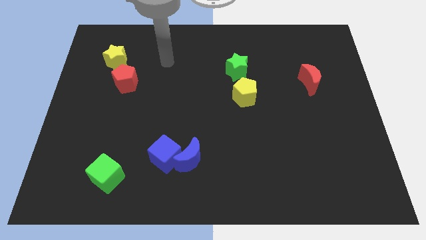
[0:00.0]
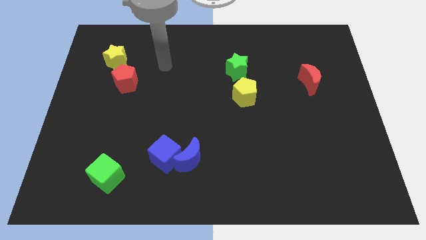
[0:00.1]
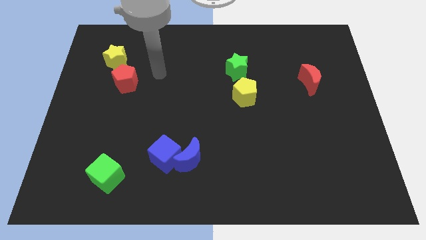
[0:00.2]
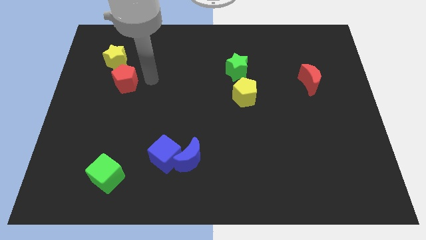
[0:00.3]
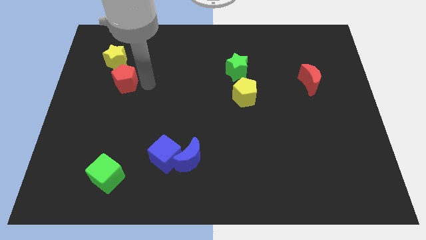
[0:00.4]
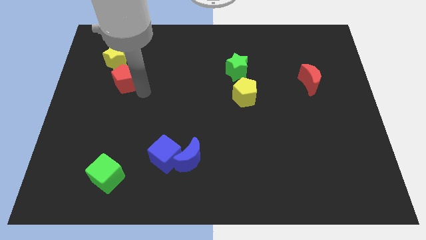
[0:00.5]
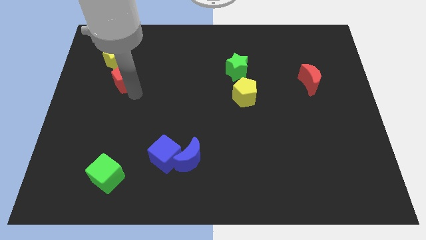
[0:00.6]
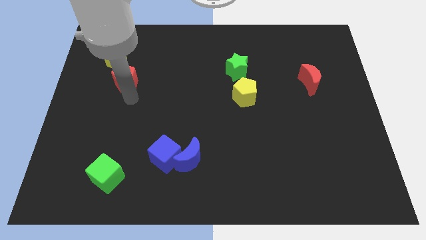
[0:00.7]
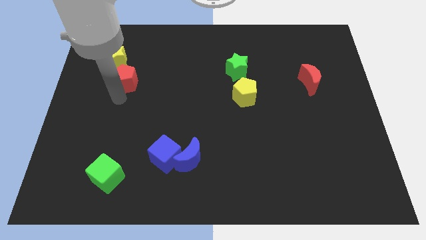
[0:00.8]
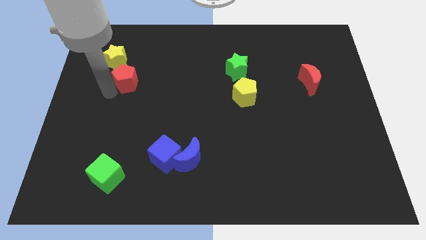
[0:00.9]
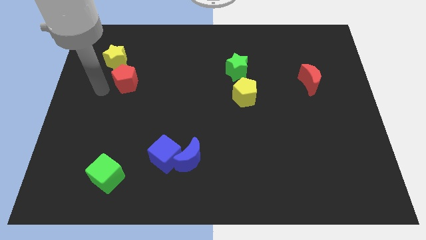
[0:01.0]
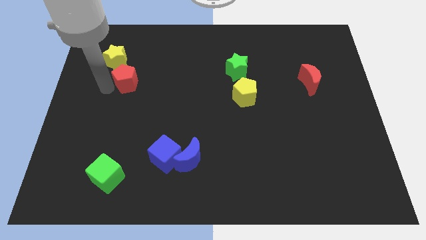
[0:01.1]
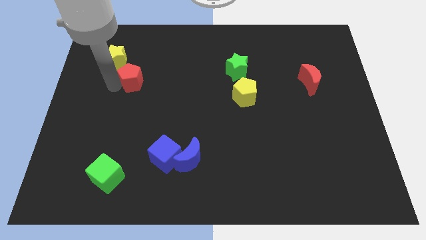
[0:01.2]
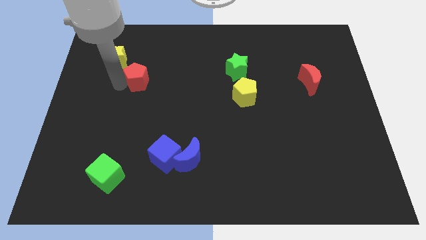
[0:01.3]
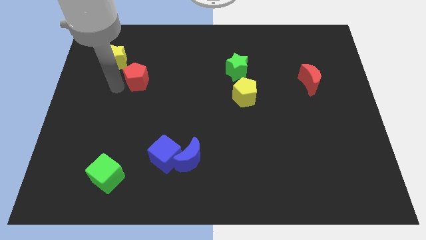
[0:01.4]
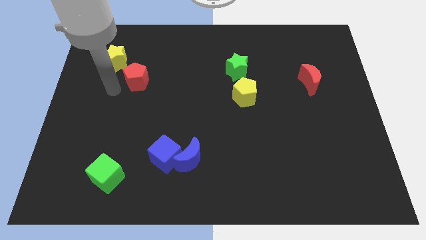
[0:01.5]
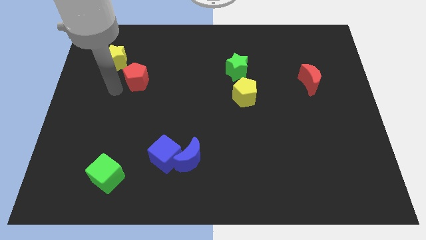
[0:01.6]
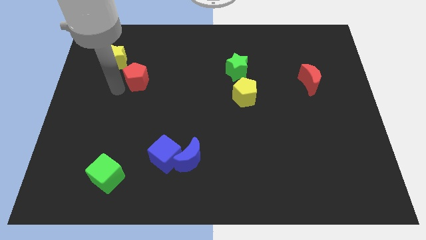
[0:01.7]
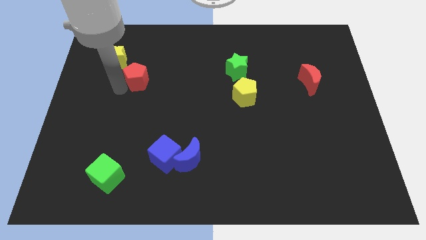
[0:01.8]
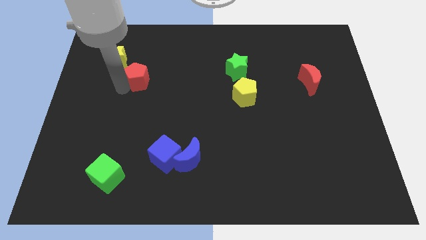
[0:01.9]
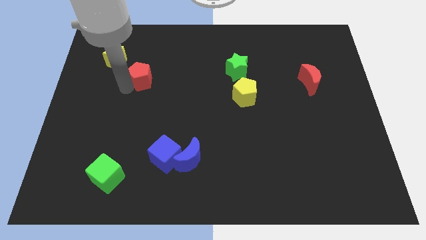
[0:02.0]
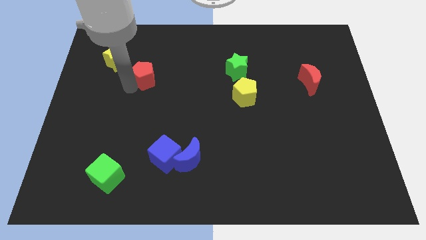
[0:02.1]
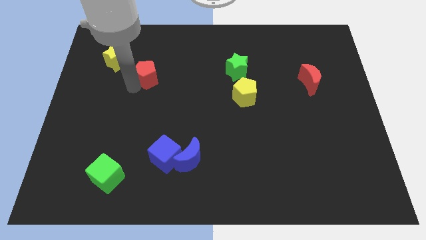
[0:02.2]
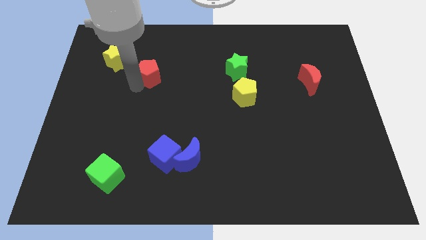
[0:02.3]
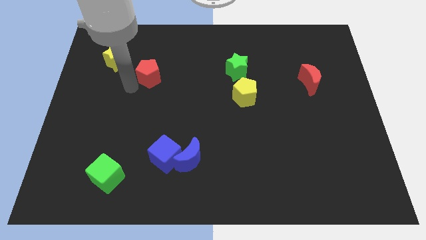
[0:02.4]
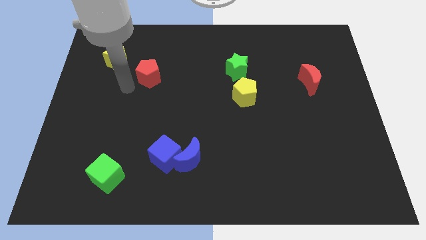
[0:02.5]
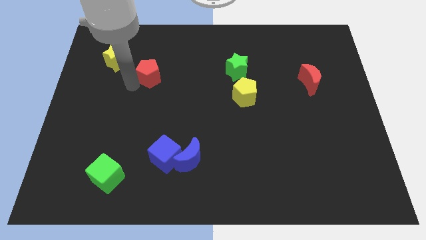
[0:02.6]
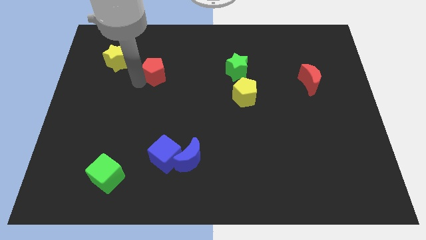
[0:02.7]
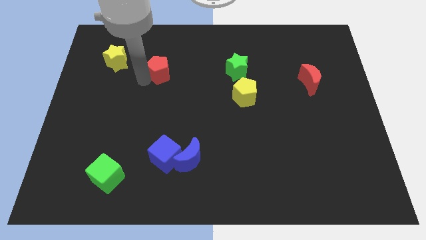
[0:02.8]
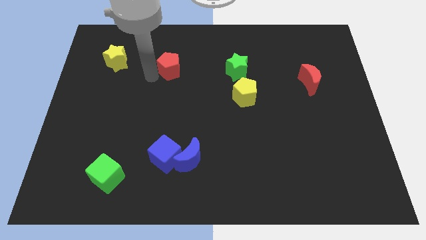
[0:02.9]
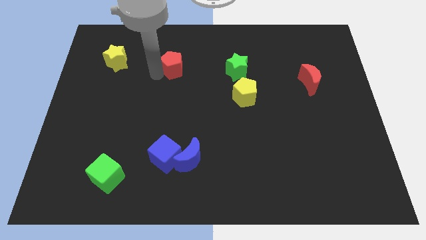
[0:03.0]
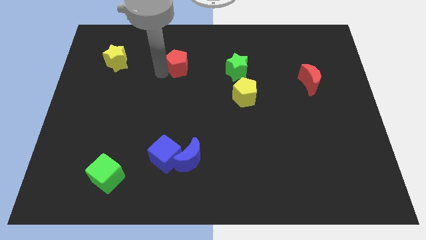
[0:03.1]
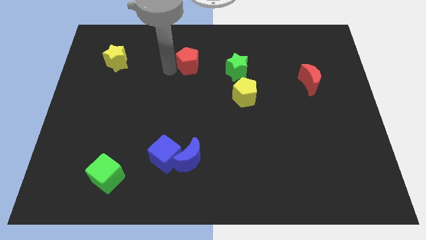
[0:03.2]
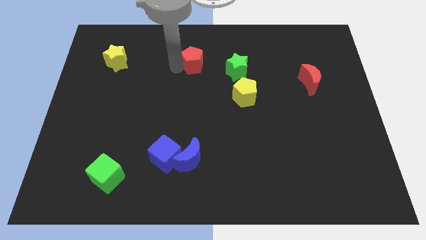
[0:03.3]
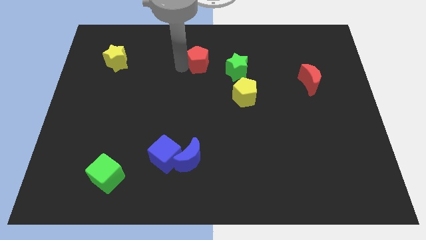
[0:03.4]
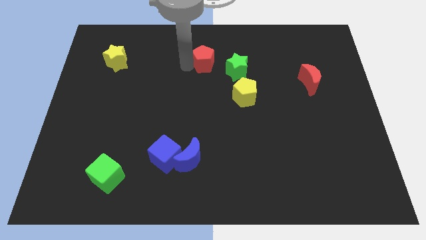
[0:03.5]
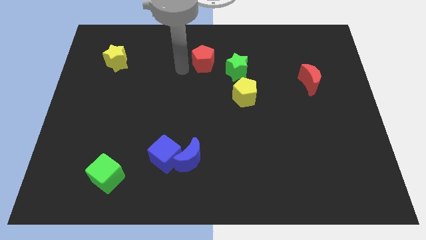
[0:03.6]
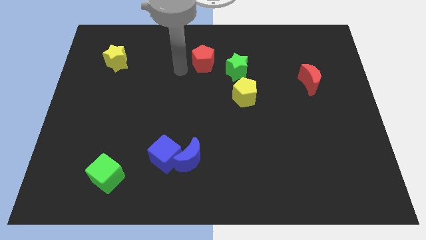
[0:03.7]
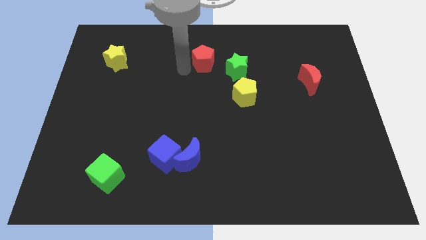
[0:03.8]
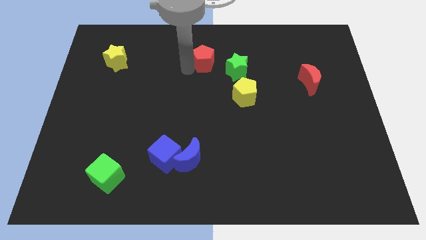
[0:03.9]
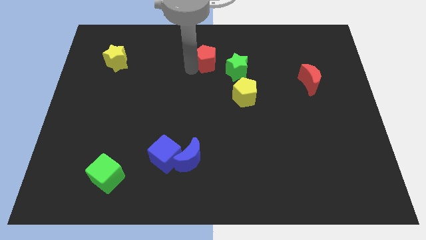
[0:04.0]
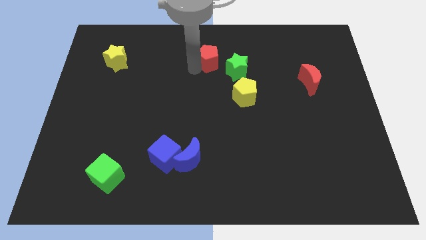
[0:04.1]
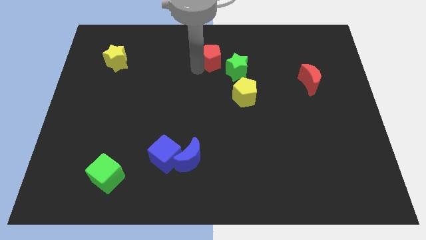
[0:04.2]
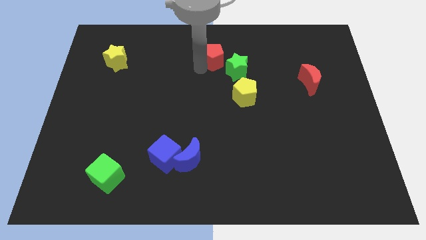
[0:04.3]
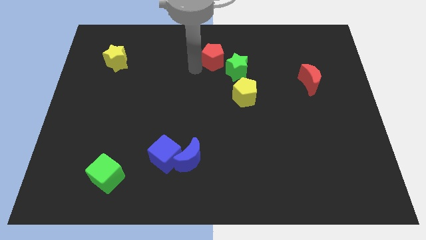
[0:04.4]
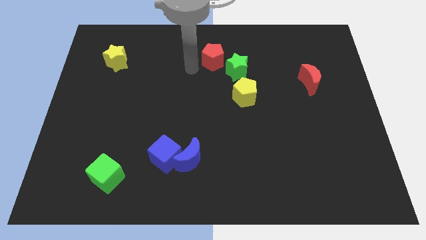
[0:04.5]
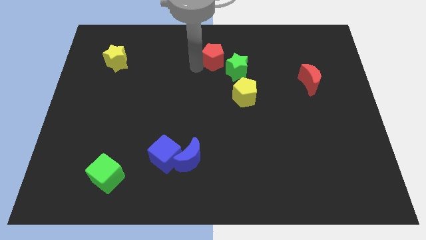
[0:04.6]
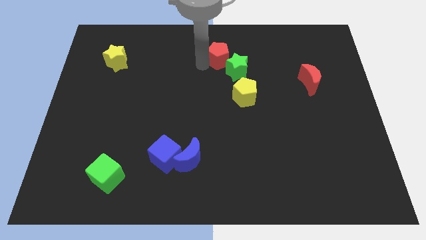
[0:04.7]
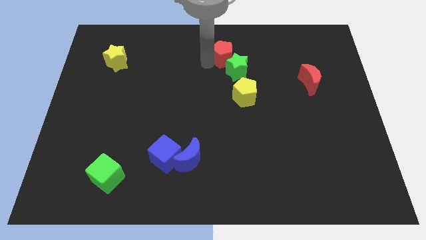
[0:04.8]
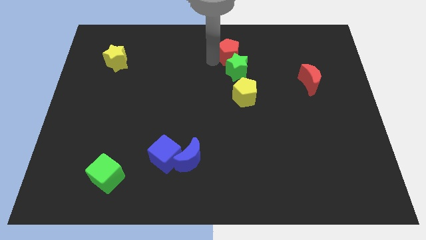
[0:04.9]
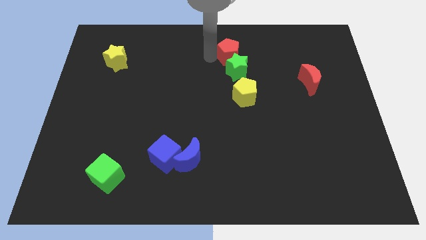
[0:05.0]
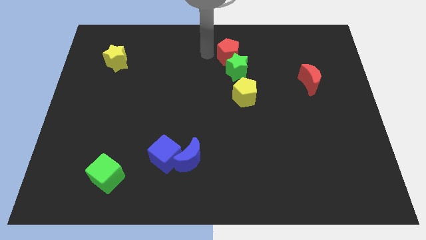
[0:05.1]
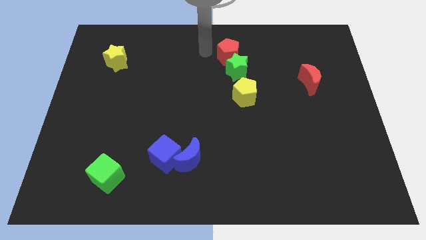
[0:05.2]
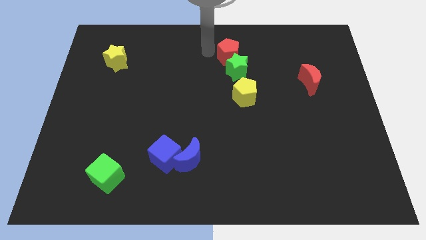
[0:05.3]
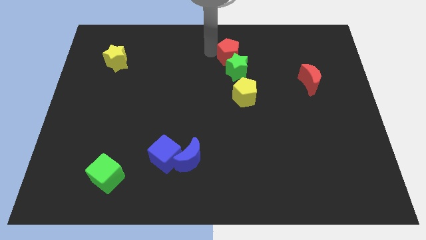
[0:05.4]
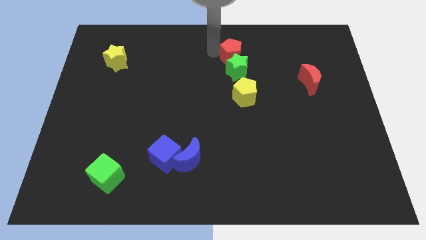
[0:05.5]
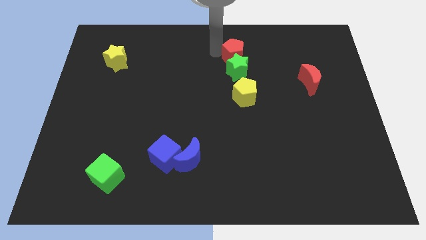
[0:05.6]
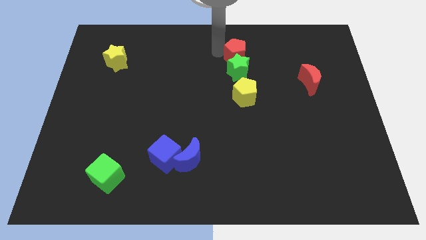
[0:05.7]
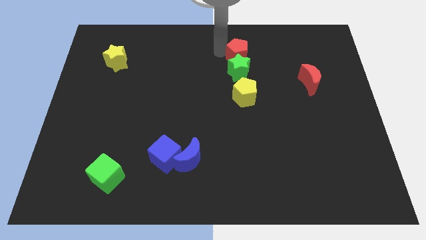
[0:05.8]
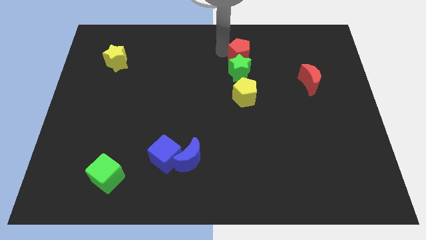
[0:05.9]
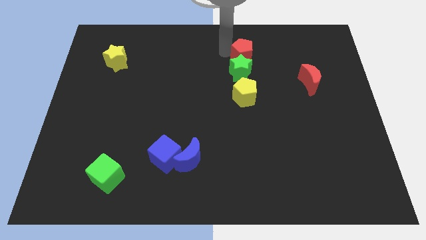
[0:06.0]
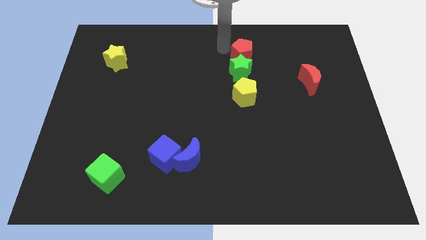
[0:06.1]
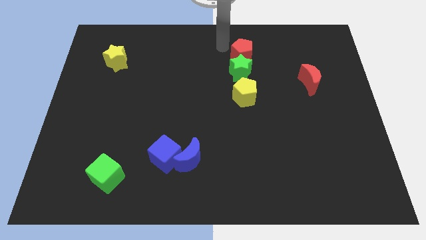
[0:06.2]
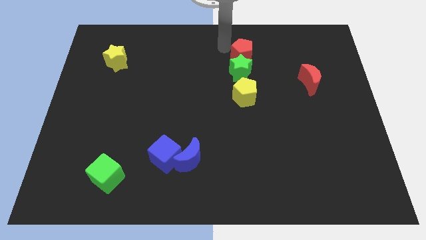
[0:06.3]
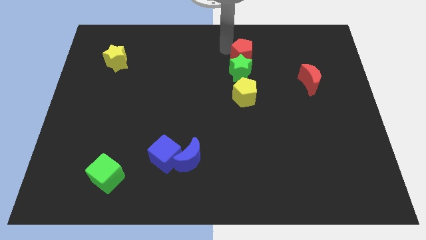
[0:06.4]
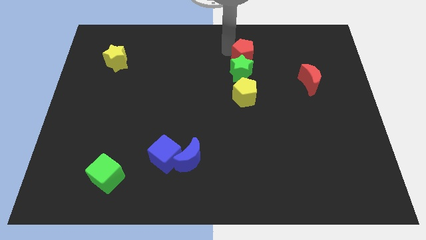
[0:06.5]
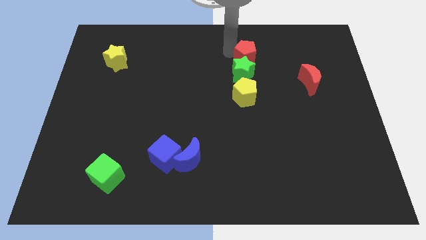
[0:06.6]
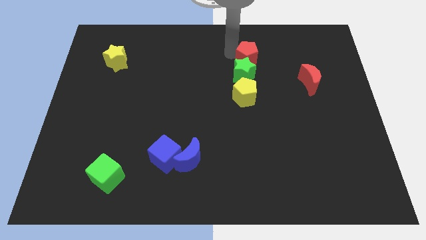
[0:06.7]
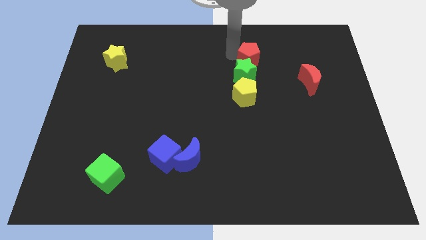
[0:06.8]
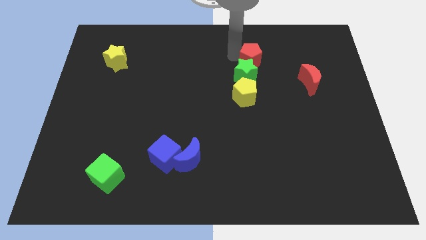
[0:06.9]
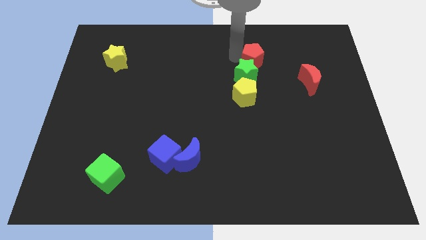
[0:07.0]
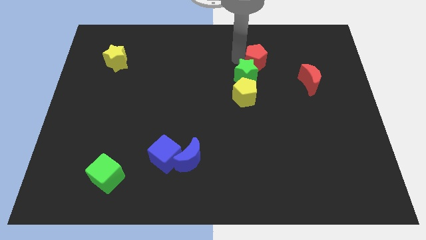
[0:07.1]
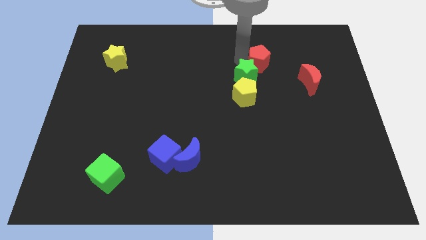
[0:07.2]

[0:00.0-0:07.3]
put the red pentagon just right of the green star
